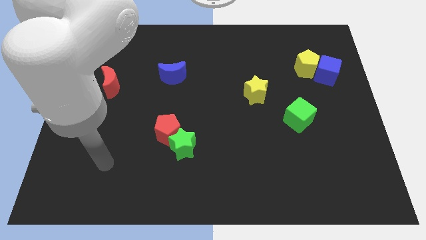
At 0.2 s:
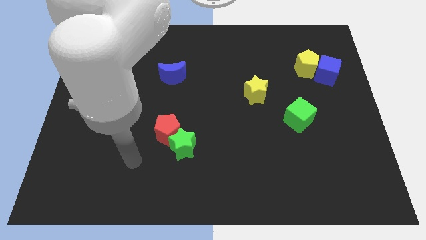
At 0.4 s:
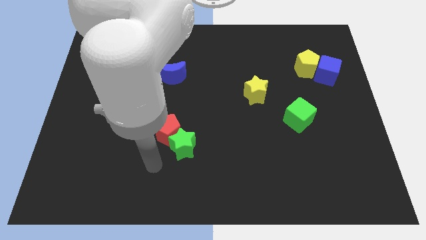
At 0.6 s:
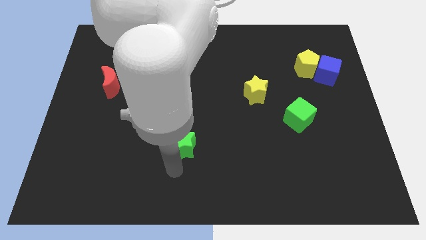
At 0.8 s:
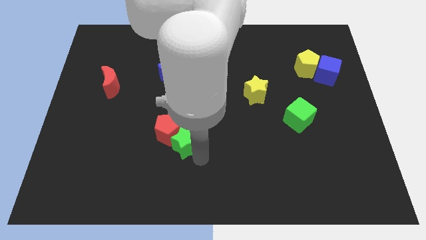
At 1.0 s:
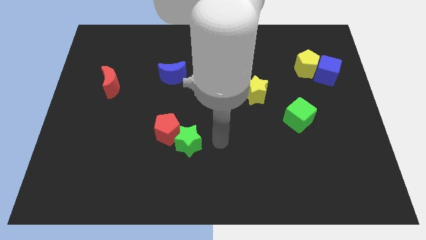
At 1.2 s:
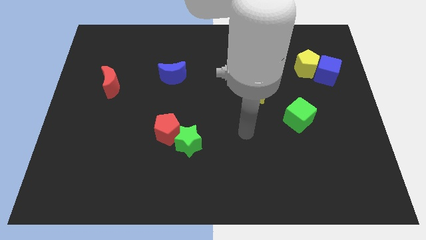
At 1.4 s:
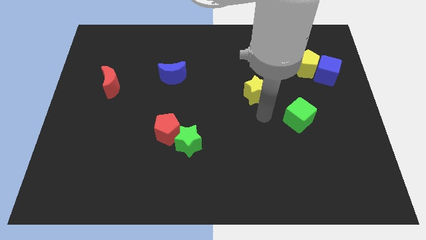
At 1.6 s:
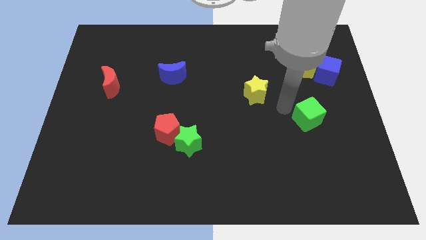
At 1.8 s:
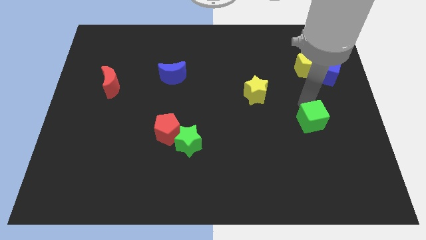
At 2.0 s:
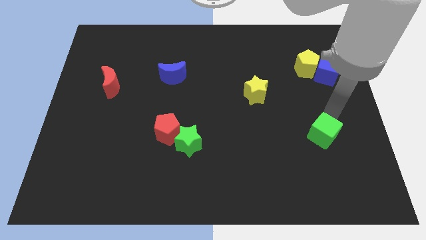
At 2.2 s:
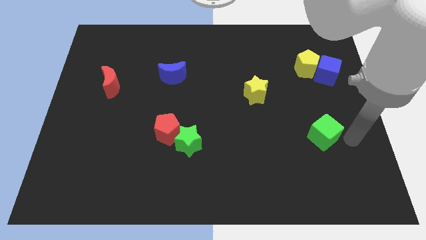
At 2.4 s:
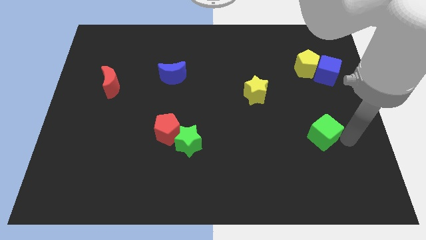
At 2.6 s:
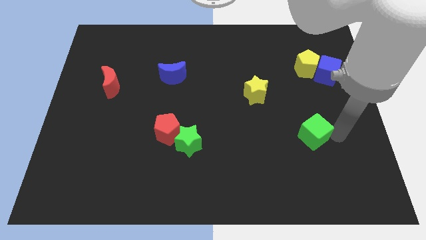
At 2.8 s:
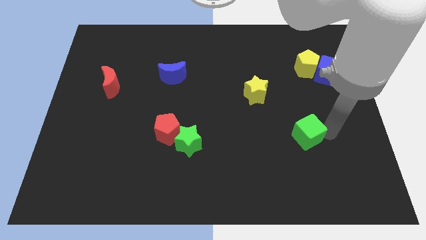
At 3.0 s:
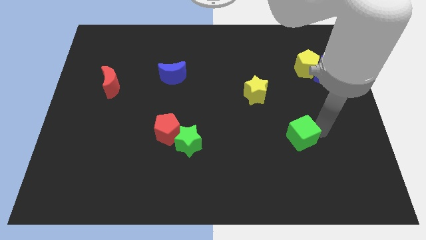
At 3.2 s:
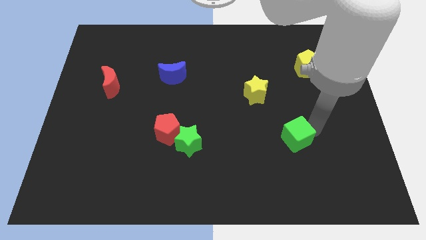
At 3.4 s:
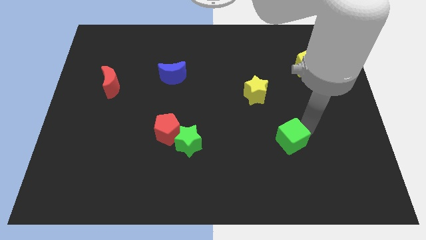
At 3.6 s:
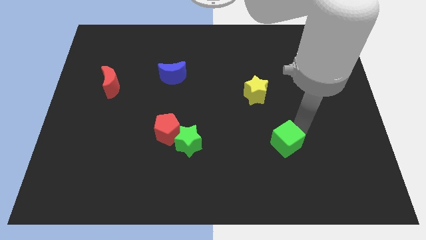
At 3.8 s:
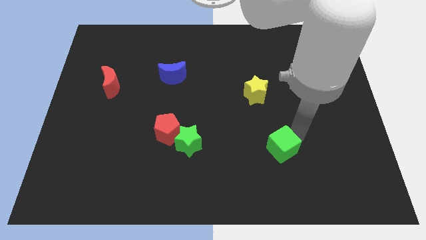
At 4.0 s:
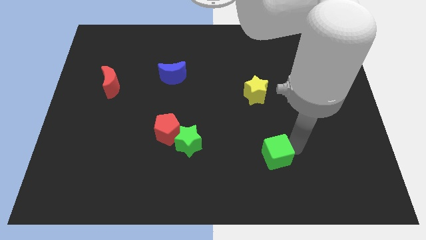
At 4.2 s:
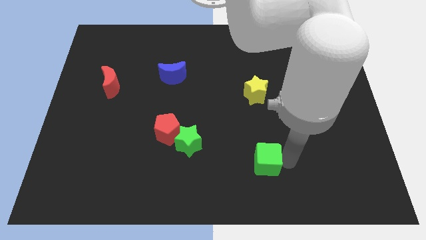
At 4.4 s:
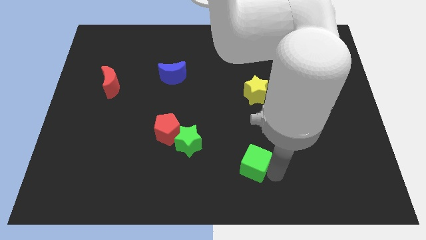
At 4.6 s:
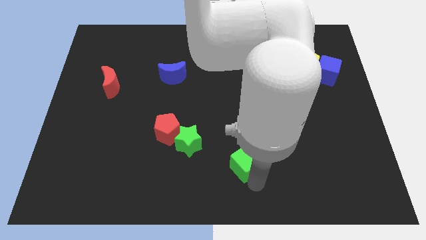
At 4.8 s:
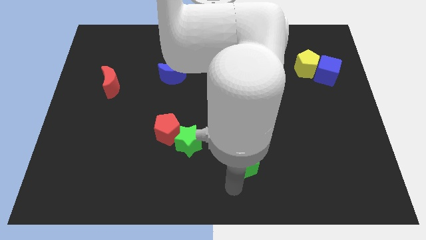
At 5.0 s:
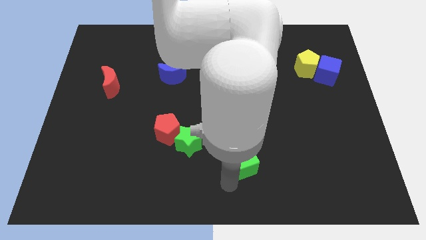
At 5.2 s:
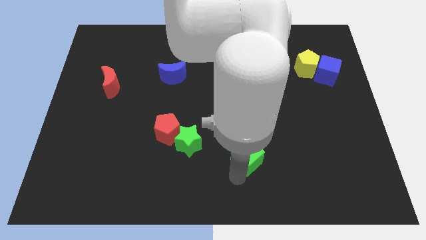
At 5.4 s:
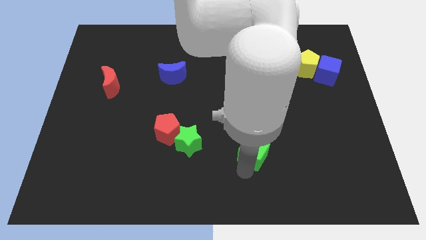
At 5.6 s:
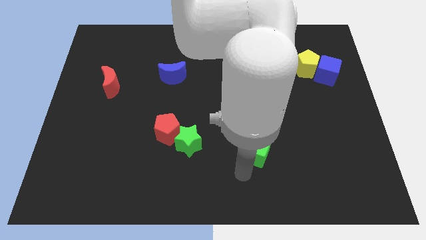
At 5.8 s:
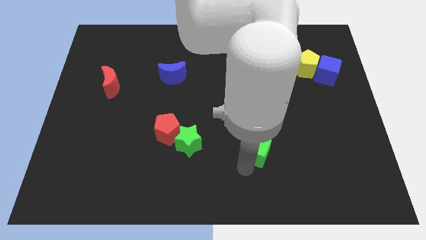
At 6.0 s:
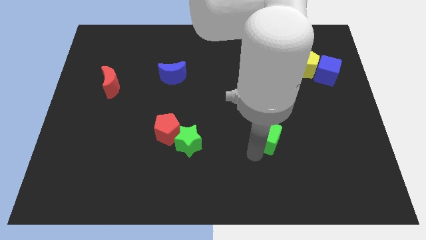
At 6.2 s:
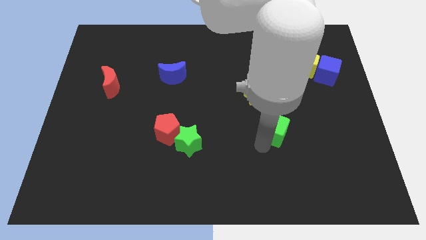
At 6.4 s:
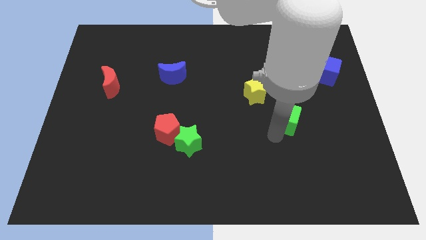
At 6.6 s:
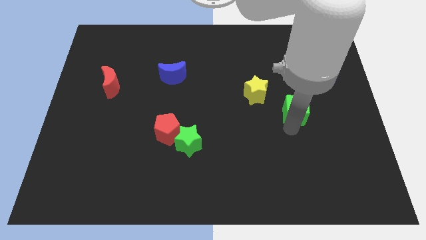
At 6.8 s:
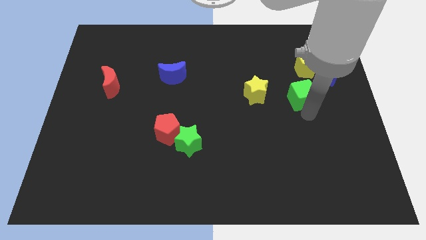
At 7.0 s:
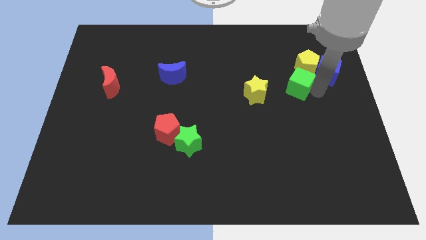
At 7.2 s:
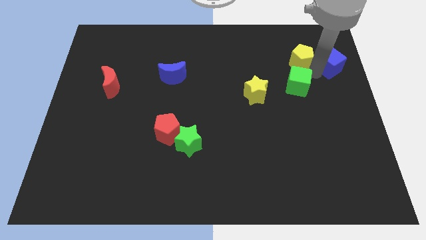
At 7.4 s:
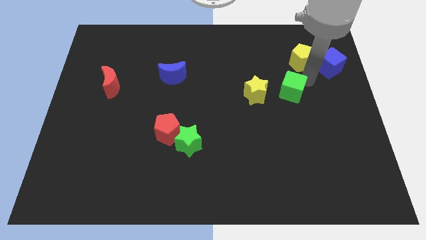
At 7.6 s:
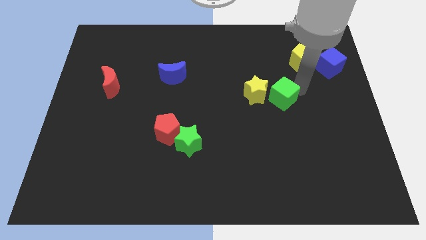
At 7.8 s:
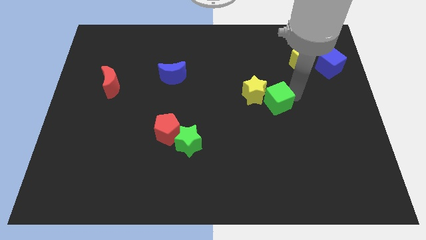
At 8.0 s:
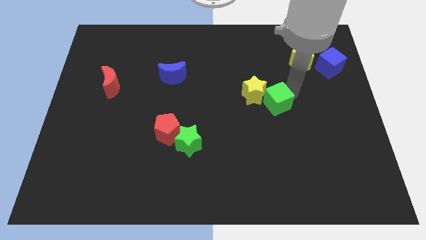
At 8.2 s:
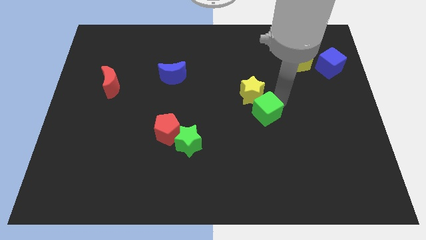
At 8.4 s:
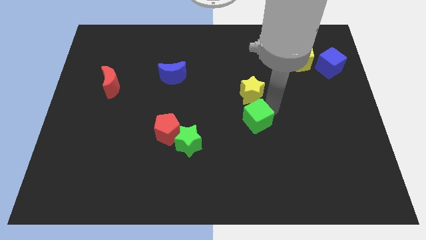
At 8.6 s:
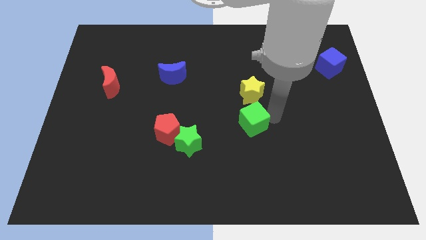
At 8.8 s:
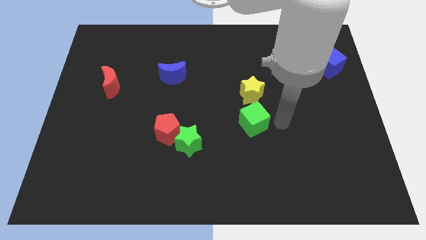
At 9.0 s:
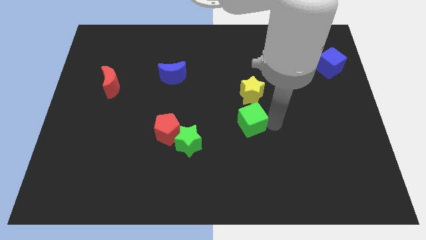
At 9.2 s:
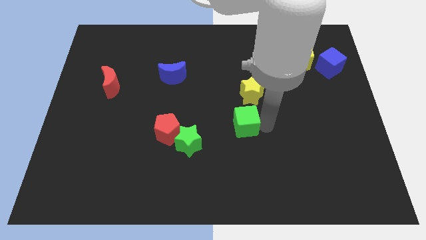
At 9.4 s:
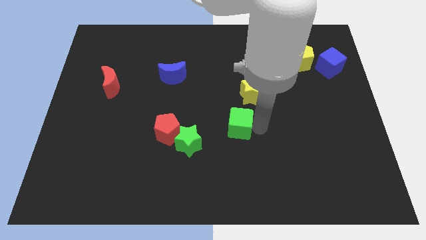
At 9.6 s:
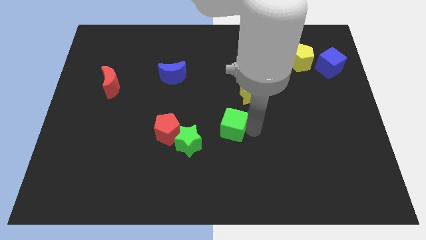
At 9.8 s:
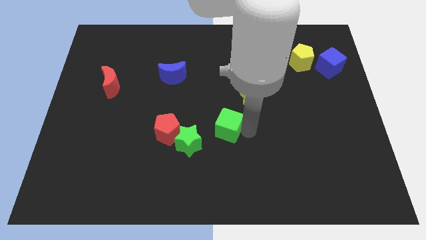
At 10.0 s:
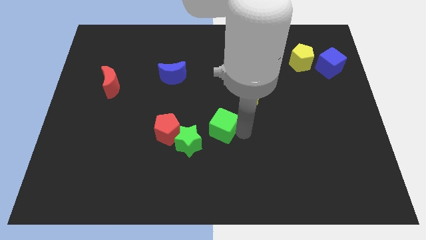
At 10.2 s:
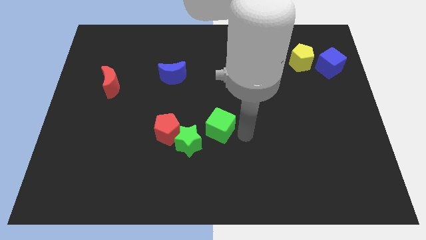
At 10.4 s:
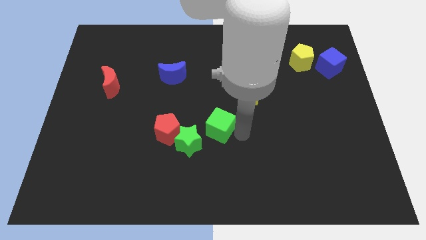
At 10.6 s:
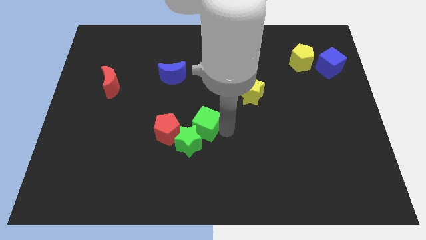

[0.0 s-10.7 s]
push the green cube to the left

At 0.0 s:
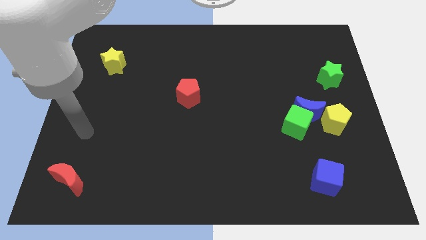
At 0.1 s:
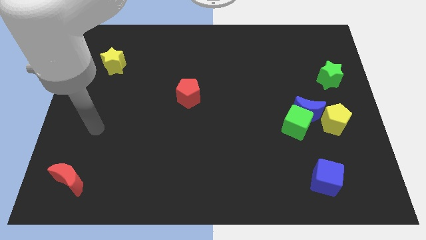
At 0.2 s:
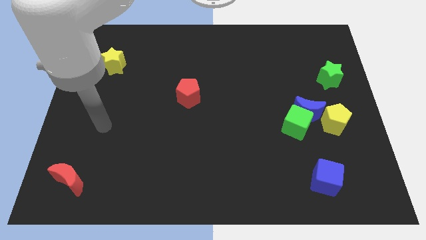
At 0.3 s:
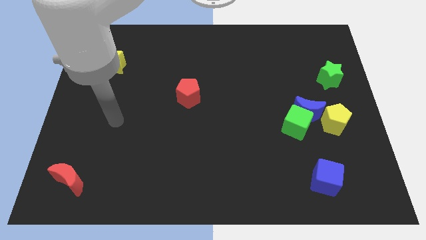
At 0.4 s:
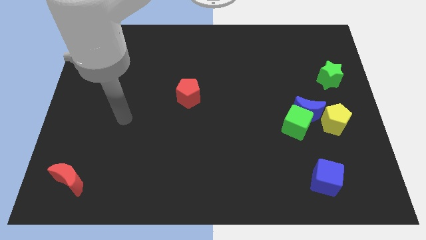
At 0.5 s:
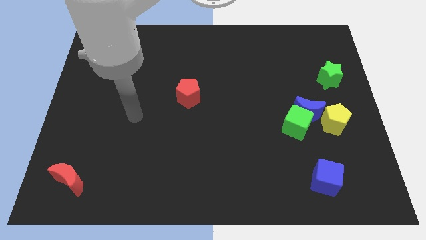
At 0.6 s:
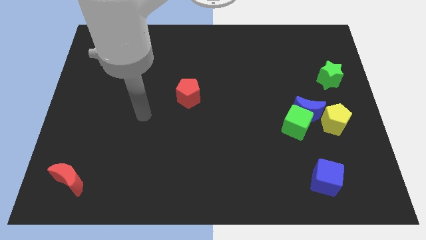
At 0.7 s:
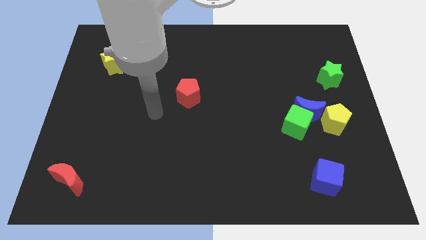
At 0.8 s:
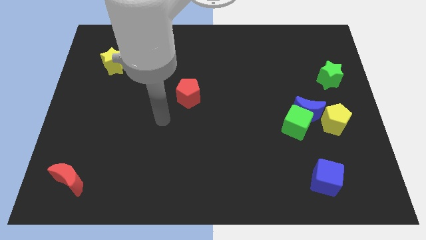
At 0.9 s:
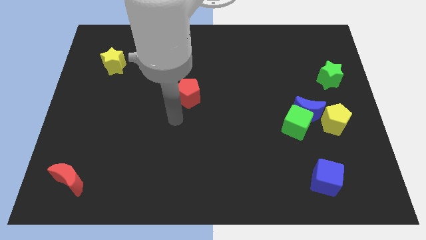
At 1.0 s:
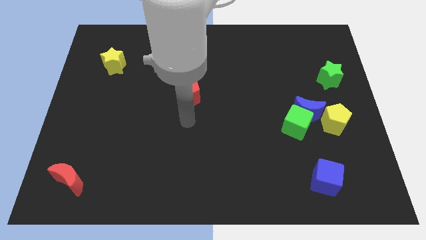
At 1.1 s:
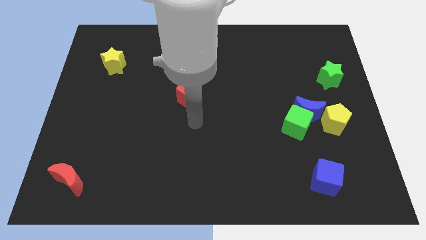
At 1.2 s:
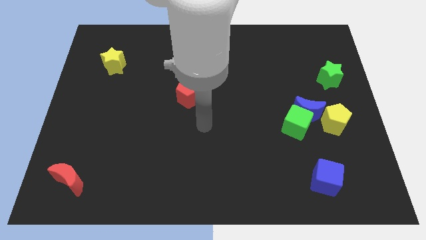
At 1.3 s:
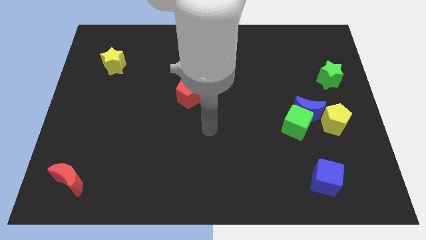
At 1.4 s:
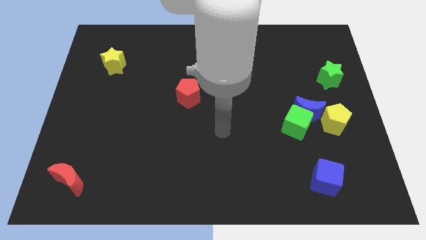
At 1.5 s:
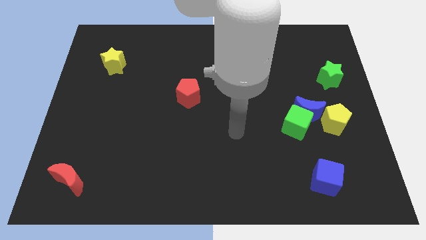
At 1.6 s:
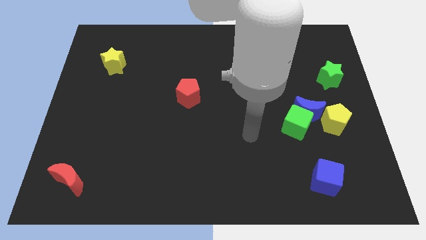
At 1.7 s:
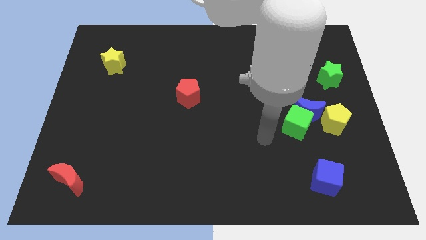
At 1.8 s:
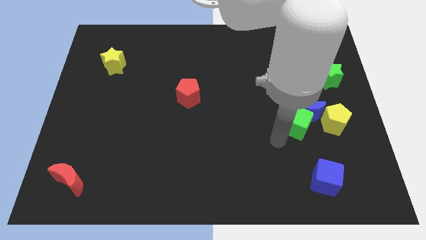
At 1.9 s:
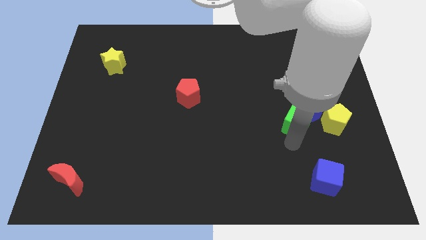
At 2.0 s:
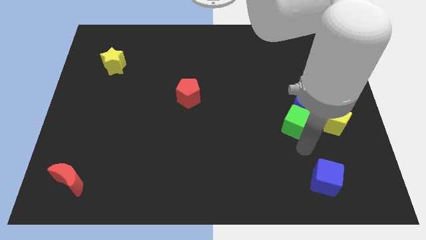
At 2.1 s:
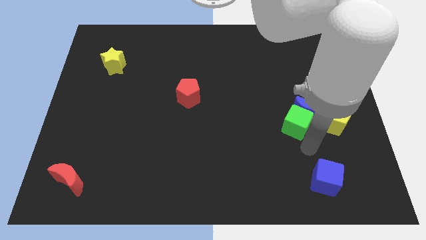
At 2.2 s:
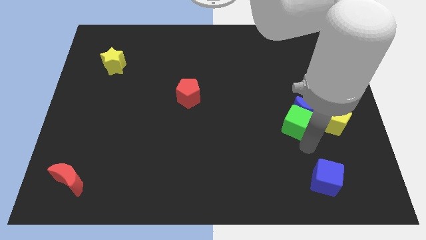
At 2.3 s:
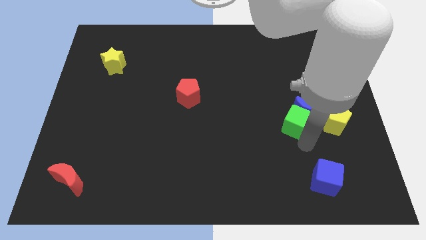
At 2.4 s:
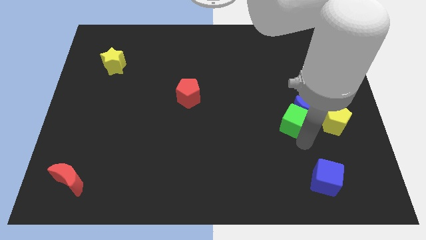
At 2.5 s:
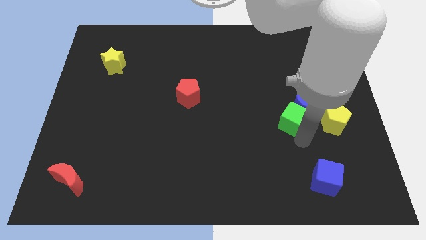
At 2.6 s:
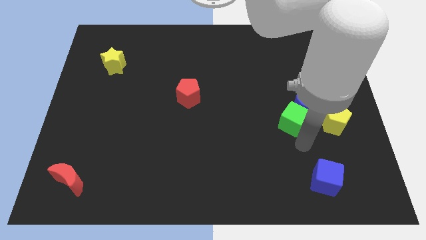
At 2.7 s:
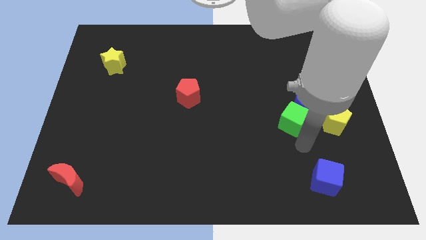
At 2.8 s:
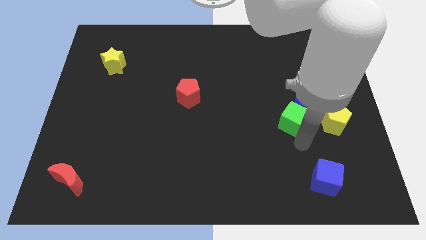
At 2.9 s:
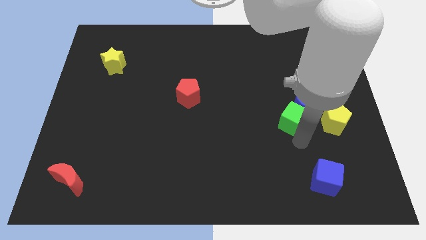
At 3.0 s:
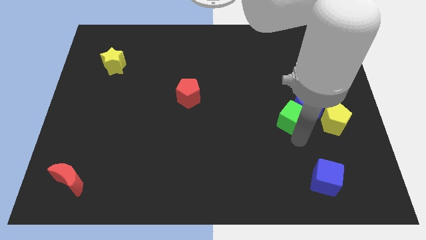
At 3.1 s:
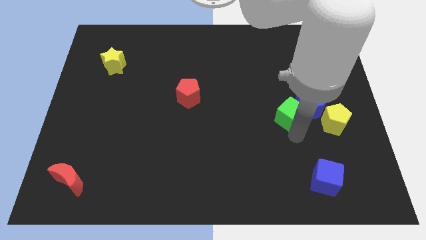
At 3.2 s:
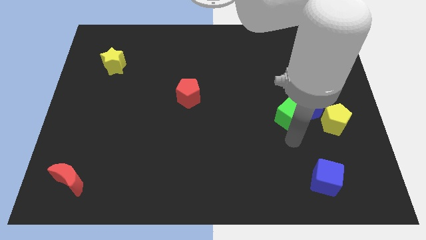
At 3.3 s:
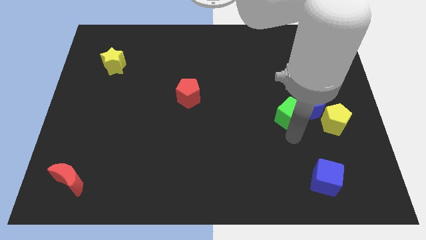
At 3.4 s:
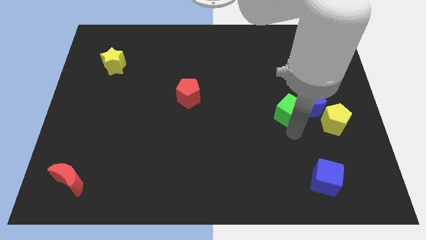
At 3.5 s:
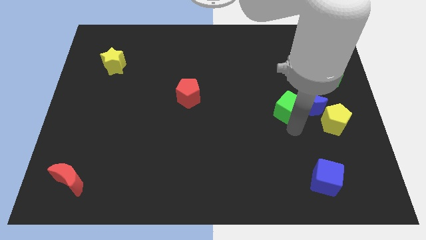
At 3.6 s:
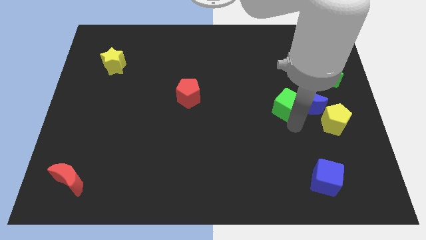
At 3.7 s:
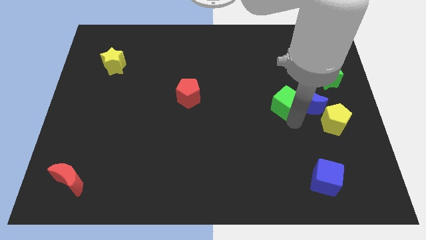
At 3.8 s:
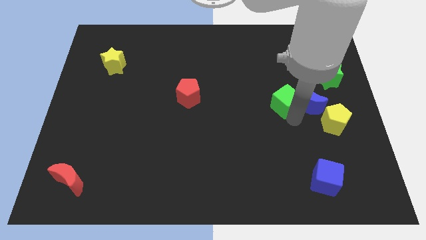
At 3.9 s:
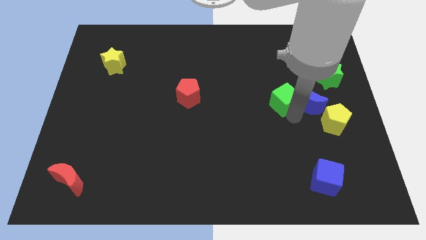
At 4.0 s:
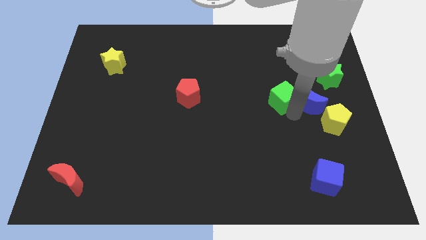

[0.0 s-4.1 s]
slightly move the green cube upwards
